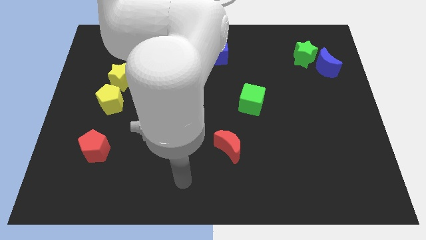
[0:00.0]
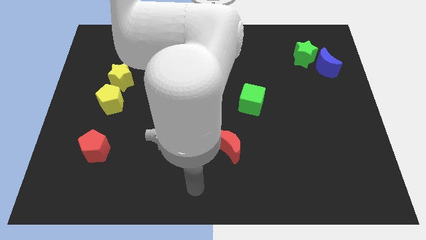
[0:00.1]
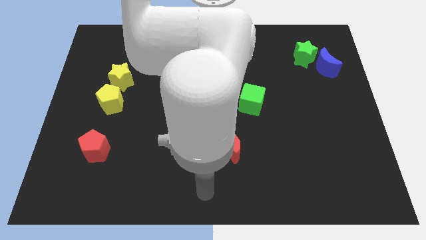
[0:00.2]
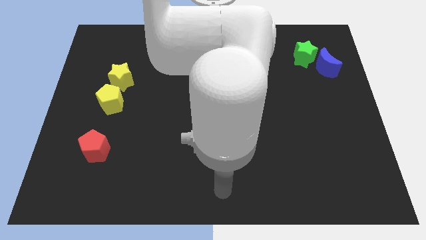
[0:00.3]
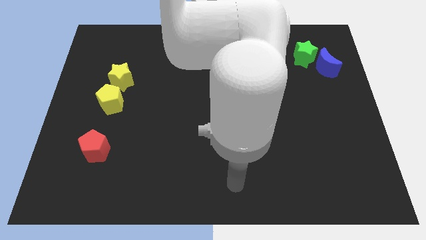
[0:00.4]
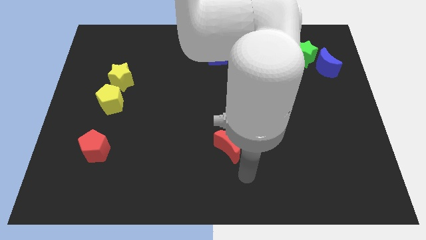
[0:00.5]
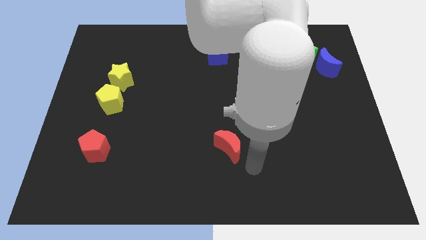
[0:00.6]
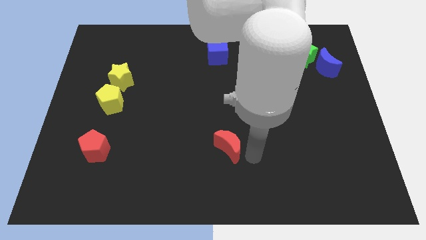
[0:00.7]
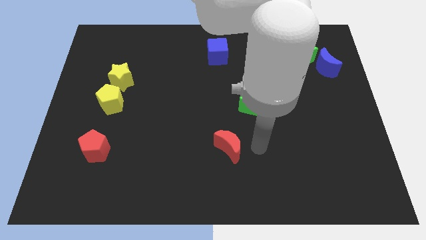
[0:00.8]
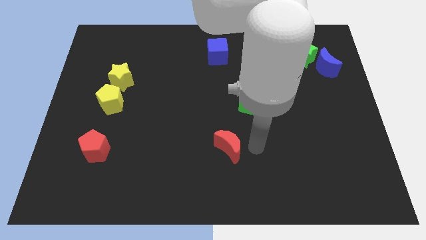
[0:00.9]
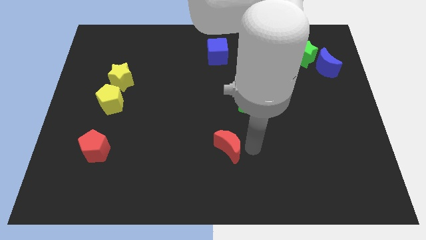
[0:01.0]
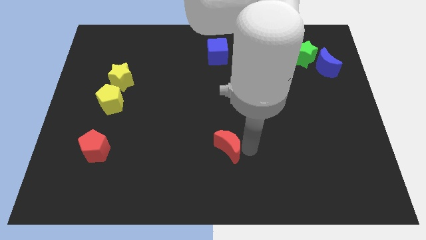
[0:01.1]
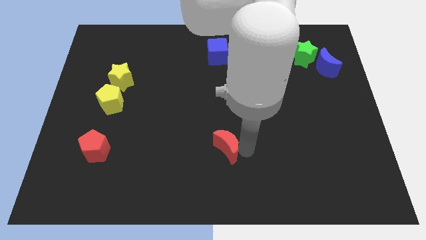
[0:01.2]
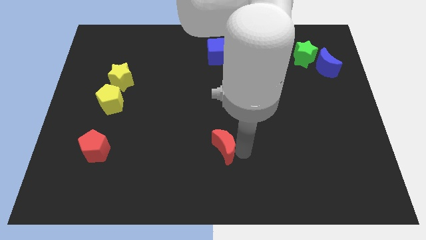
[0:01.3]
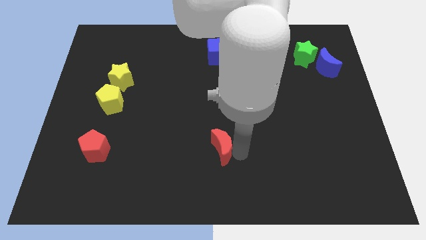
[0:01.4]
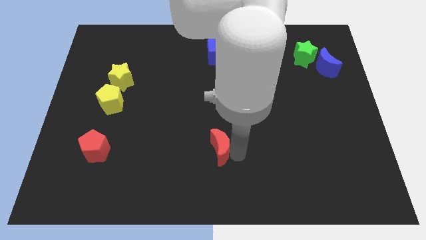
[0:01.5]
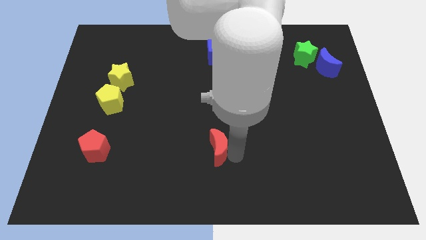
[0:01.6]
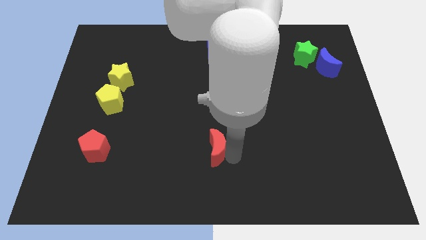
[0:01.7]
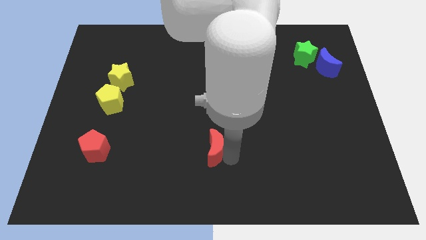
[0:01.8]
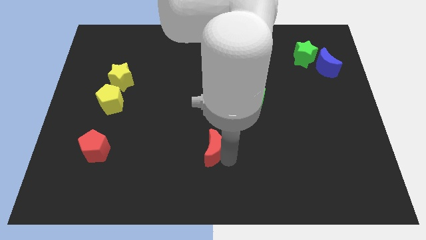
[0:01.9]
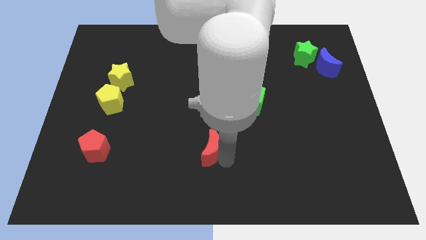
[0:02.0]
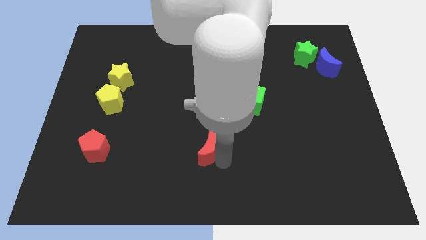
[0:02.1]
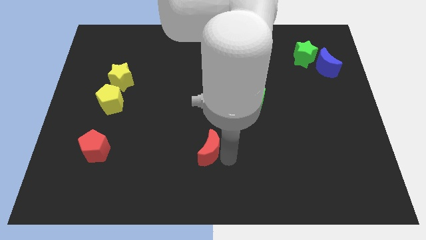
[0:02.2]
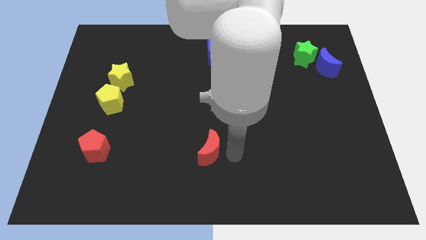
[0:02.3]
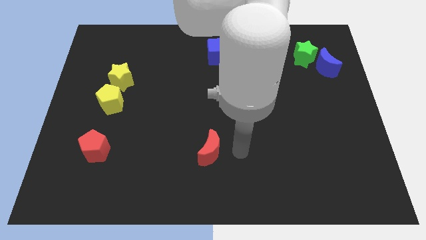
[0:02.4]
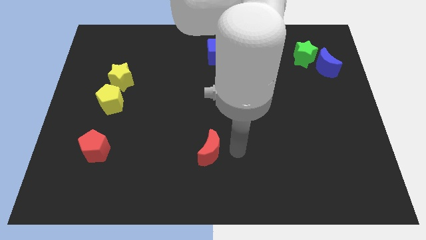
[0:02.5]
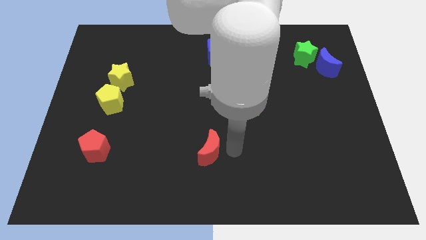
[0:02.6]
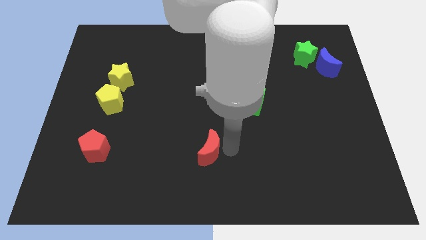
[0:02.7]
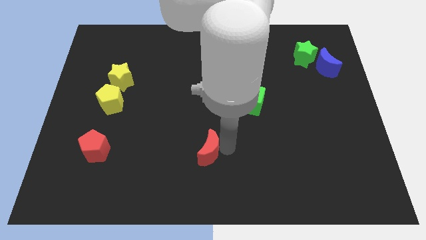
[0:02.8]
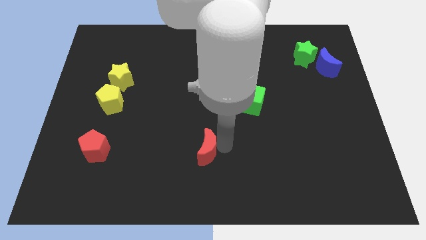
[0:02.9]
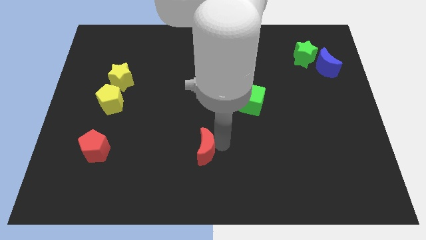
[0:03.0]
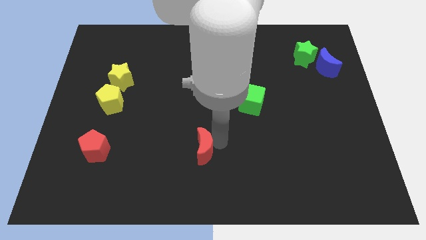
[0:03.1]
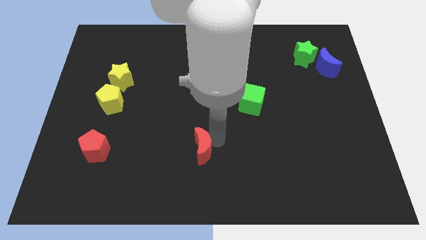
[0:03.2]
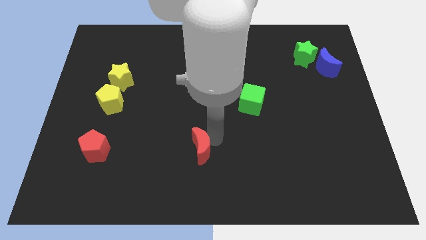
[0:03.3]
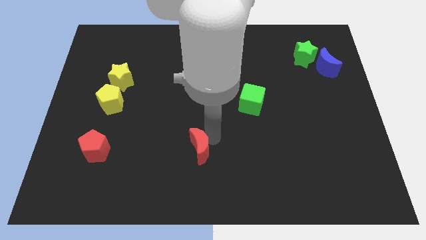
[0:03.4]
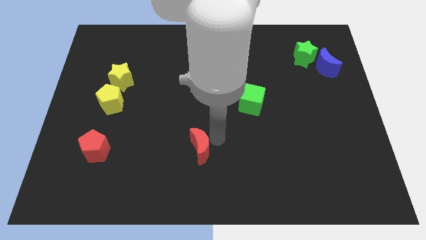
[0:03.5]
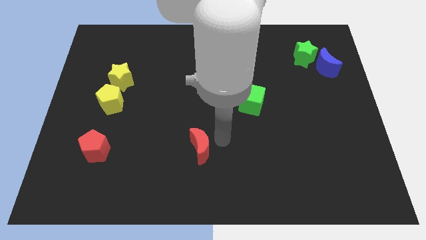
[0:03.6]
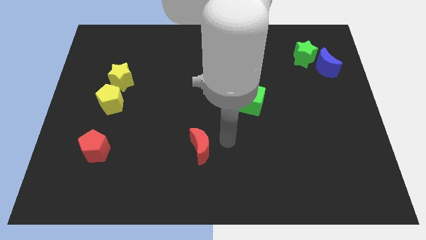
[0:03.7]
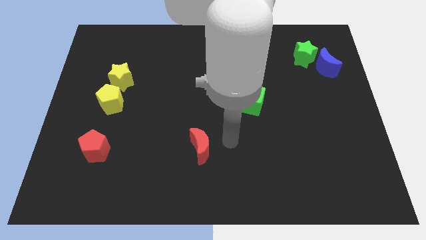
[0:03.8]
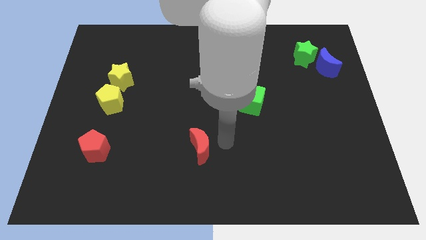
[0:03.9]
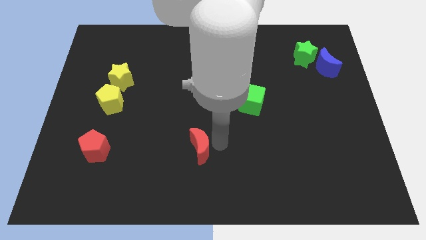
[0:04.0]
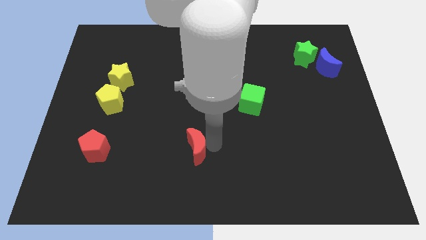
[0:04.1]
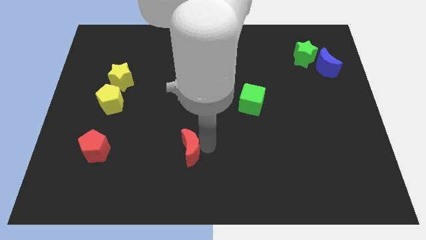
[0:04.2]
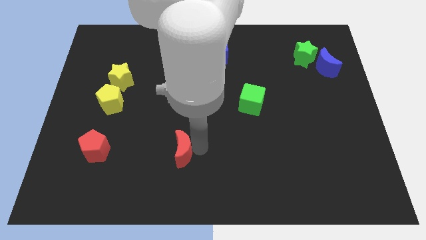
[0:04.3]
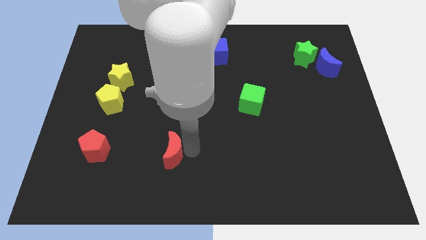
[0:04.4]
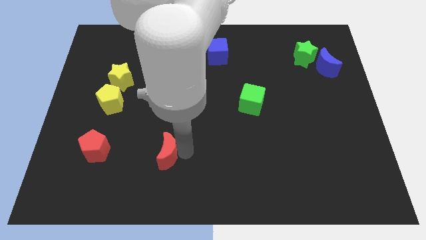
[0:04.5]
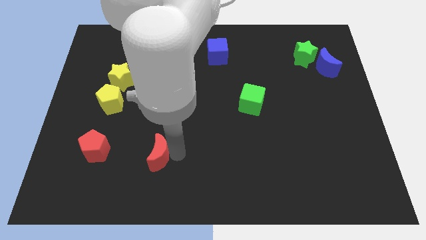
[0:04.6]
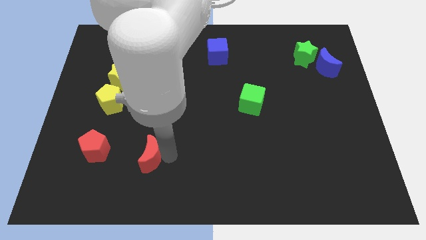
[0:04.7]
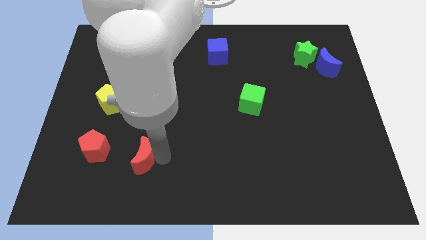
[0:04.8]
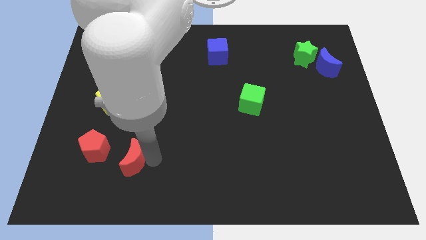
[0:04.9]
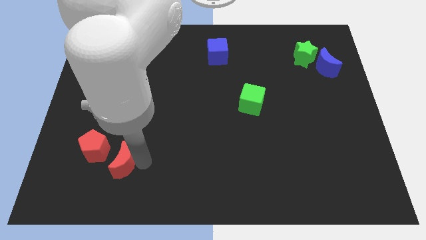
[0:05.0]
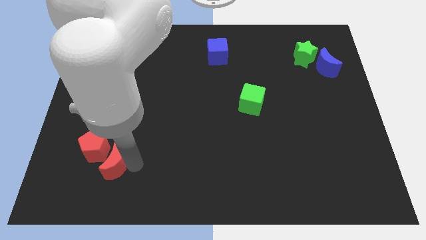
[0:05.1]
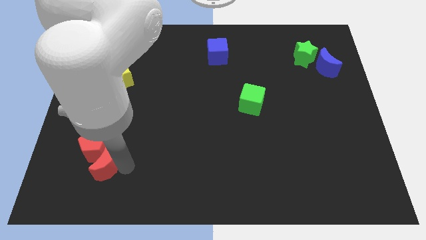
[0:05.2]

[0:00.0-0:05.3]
put the red moon towards the red pentagon

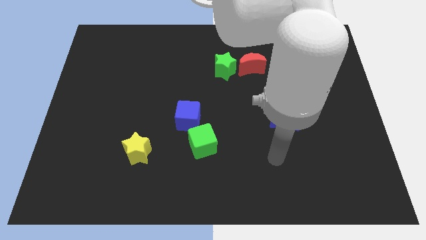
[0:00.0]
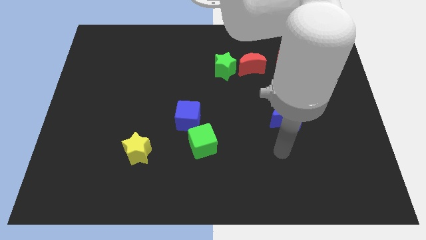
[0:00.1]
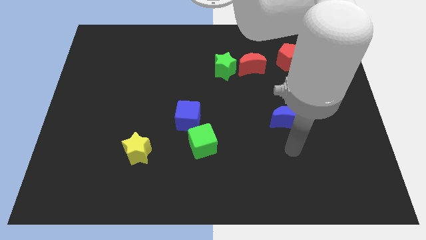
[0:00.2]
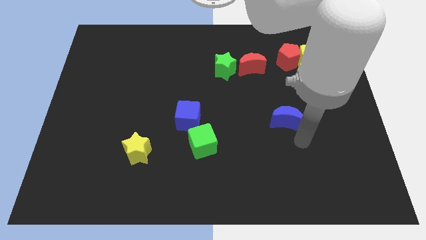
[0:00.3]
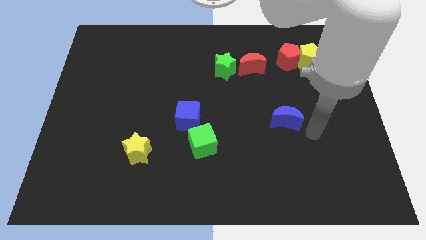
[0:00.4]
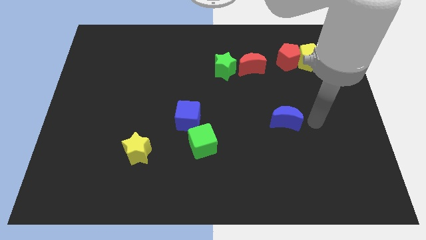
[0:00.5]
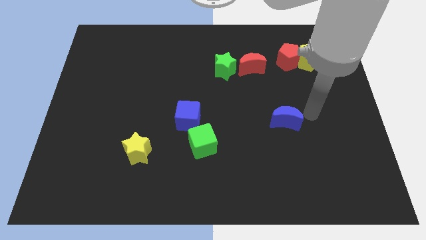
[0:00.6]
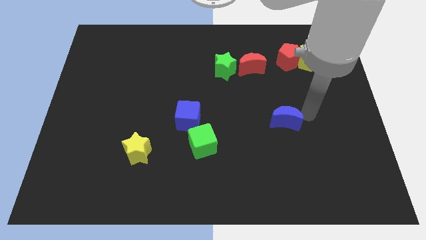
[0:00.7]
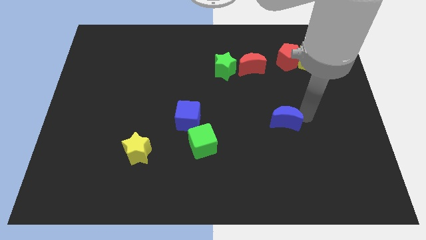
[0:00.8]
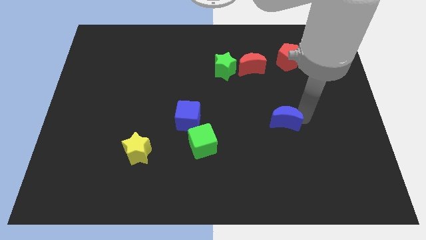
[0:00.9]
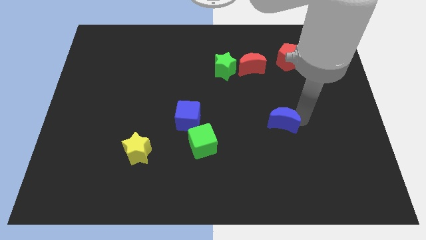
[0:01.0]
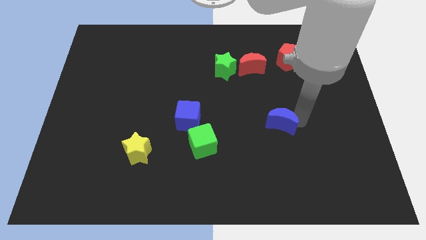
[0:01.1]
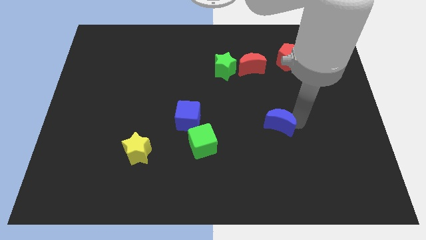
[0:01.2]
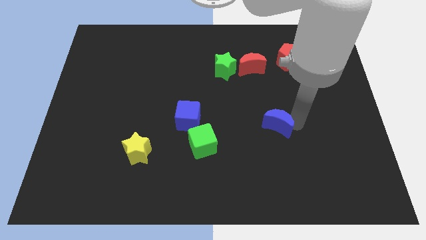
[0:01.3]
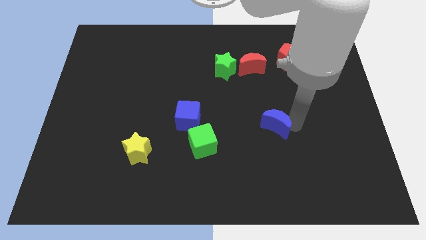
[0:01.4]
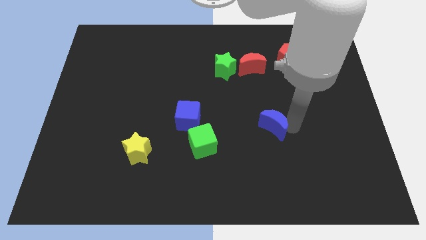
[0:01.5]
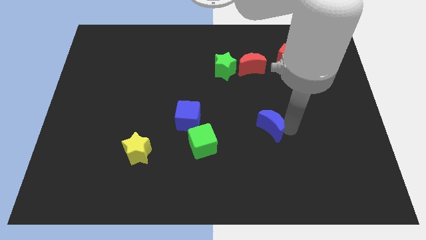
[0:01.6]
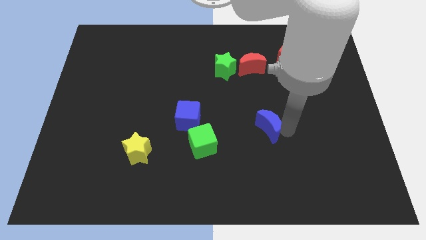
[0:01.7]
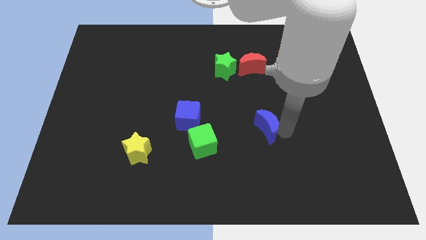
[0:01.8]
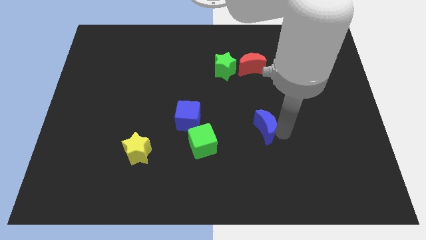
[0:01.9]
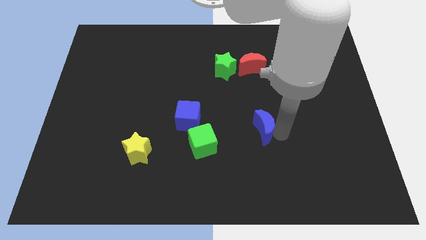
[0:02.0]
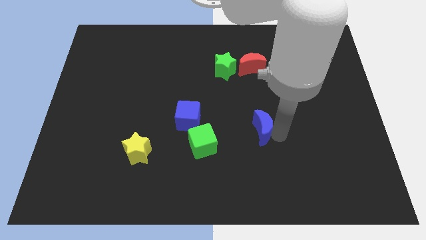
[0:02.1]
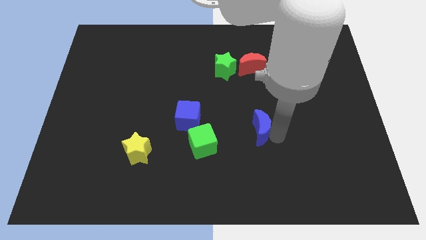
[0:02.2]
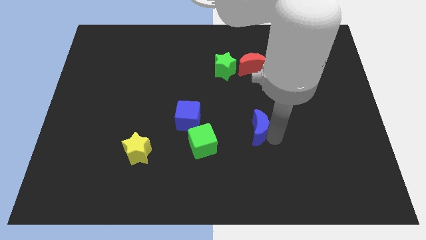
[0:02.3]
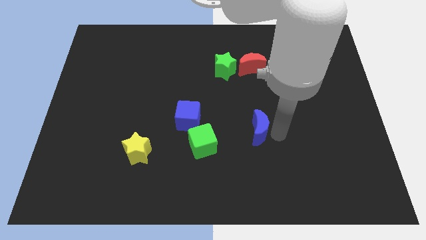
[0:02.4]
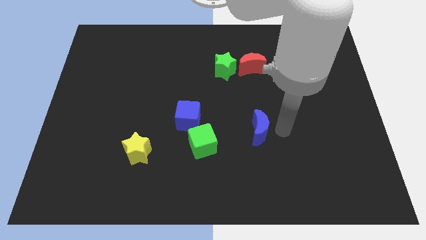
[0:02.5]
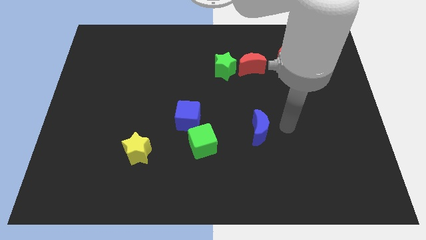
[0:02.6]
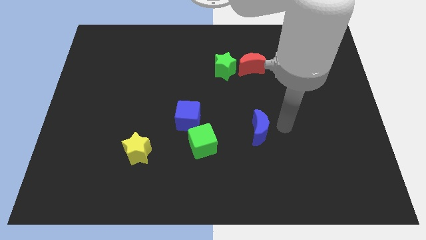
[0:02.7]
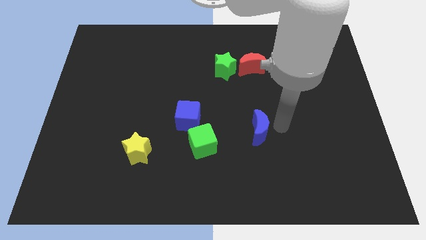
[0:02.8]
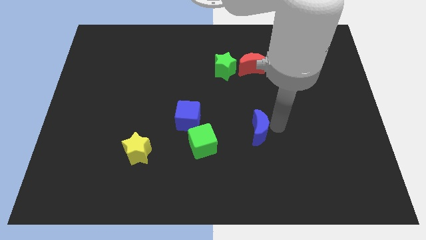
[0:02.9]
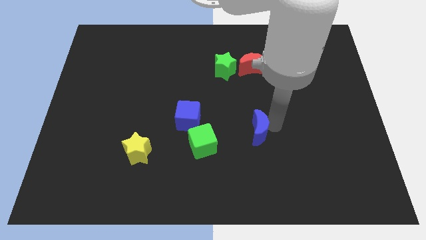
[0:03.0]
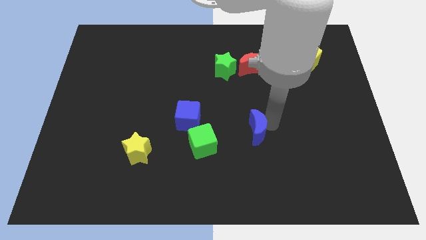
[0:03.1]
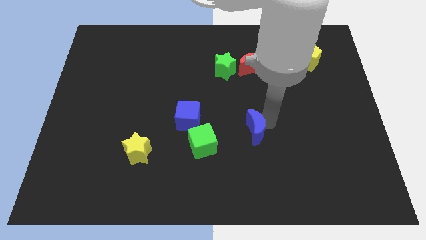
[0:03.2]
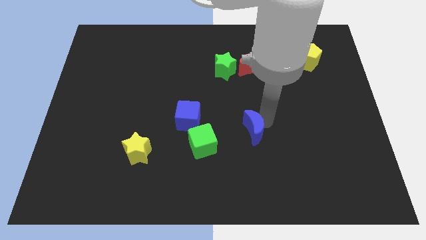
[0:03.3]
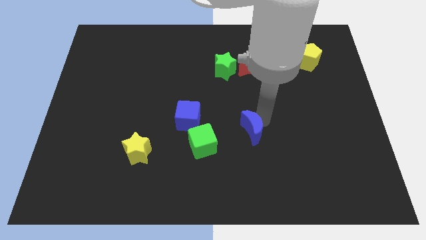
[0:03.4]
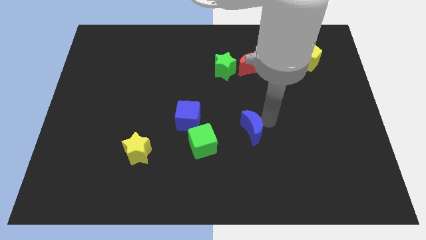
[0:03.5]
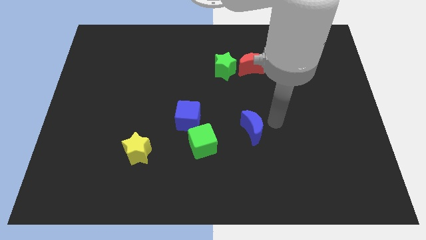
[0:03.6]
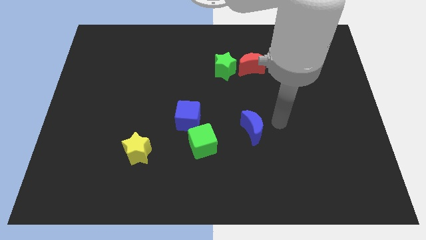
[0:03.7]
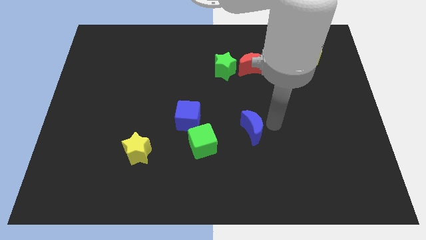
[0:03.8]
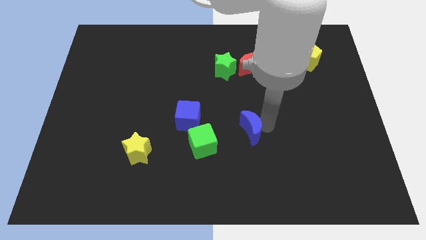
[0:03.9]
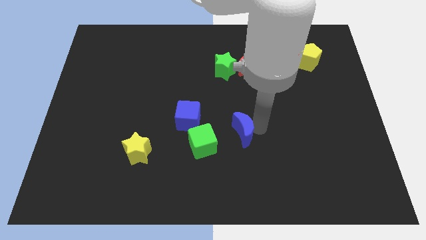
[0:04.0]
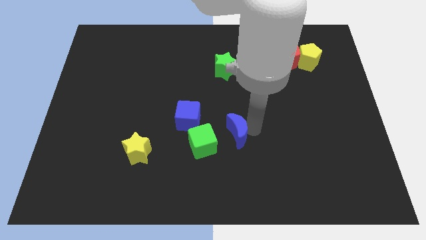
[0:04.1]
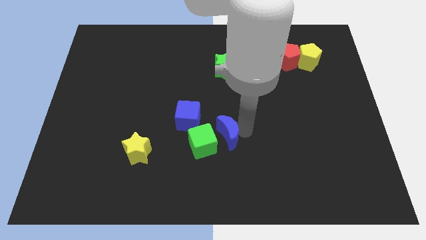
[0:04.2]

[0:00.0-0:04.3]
slide the blue moon next to the green cube
